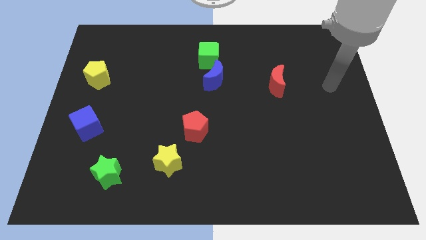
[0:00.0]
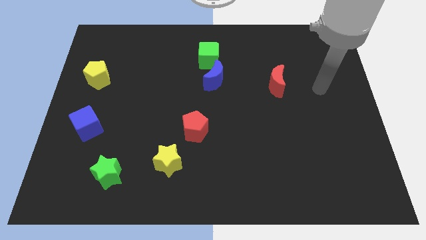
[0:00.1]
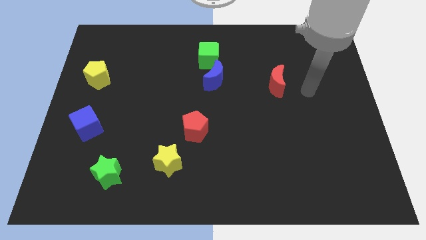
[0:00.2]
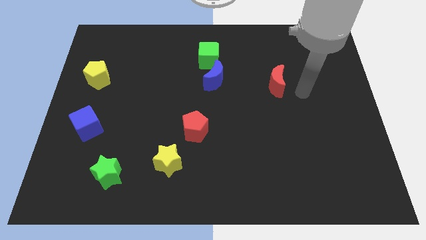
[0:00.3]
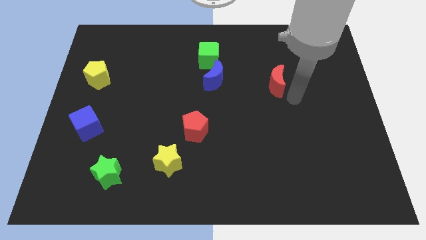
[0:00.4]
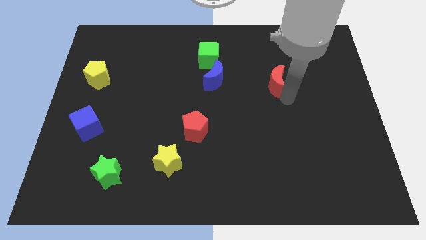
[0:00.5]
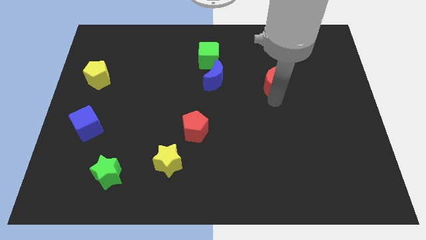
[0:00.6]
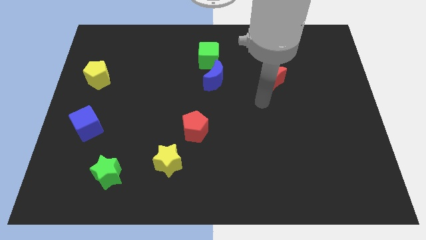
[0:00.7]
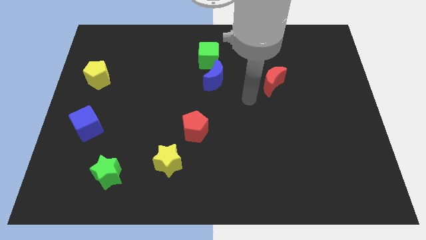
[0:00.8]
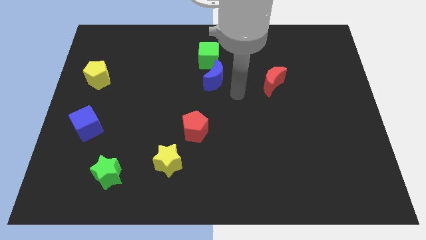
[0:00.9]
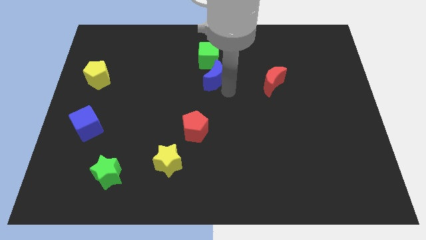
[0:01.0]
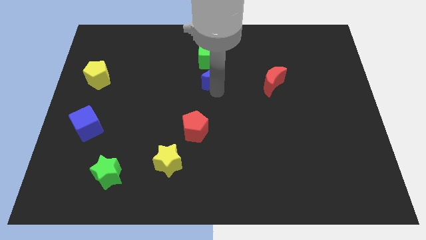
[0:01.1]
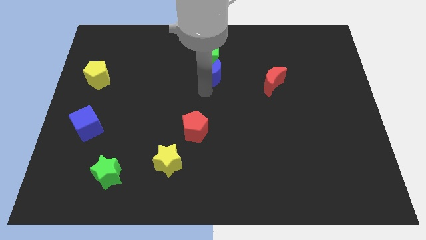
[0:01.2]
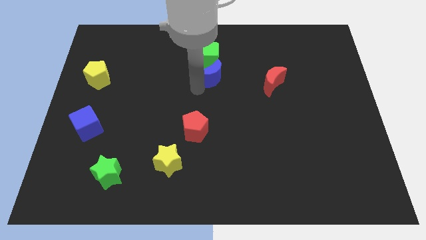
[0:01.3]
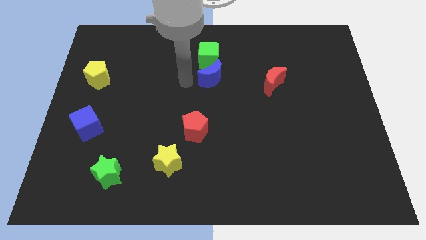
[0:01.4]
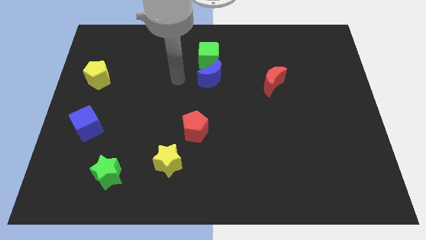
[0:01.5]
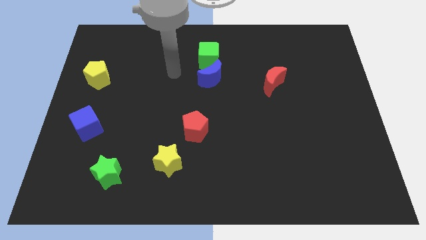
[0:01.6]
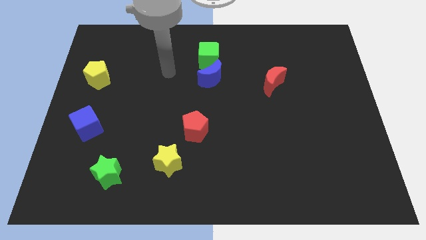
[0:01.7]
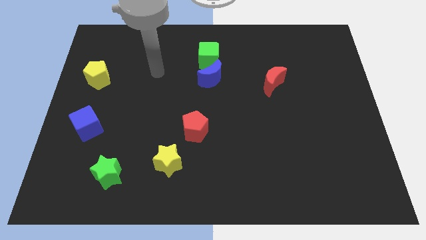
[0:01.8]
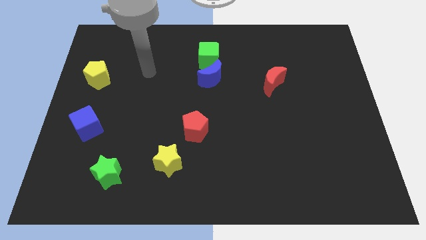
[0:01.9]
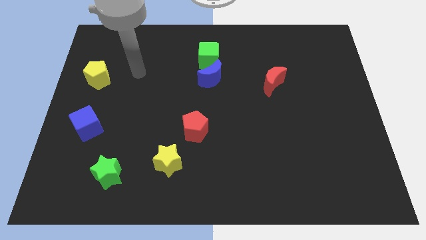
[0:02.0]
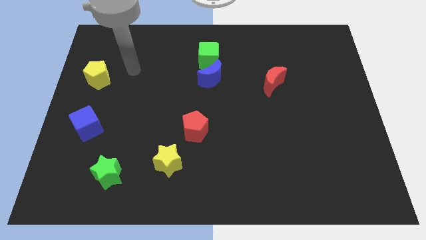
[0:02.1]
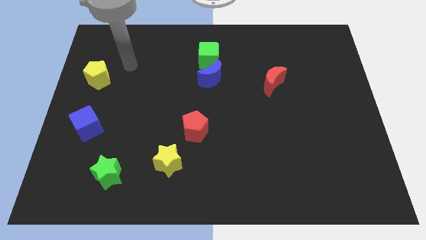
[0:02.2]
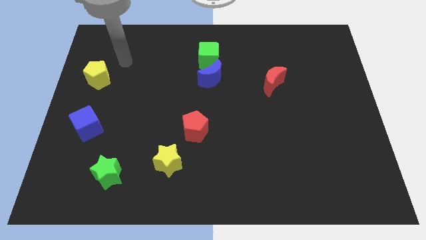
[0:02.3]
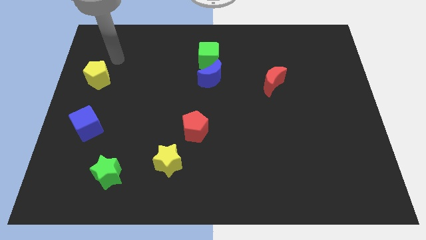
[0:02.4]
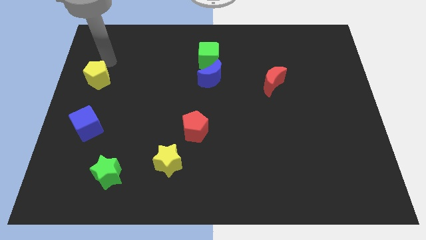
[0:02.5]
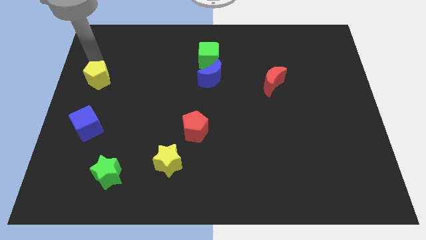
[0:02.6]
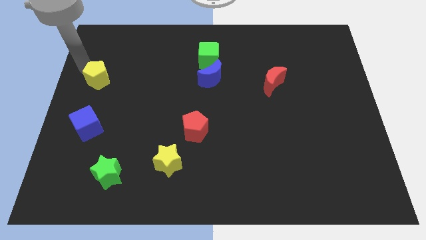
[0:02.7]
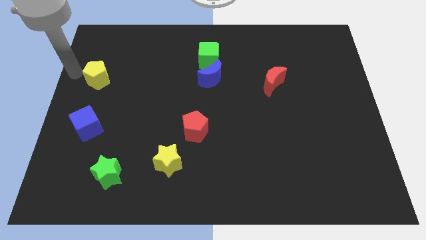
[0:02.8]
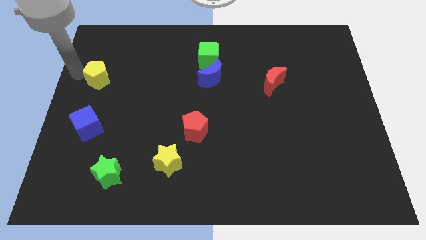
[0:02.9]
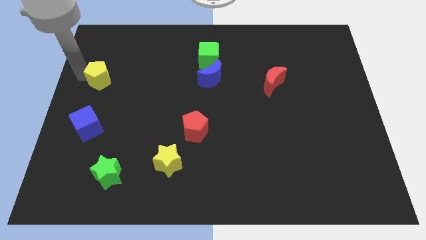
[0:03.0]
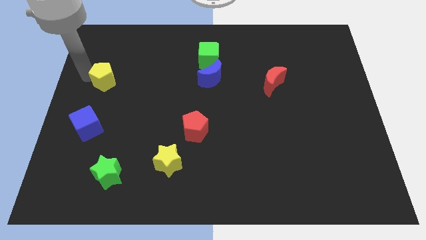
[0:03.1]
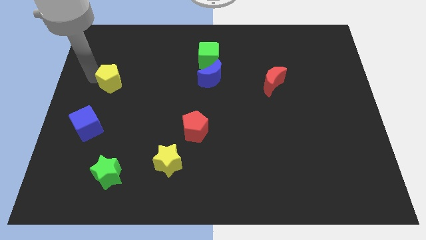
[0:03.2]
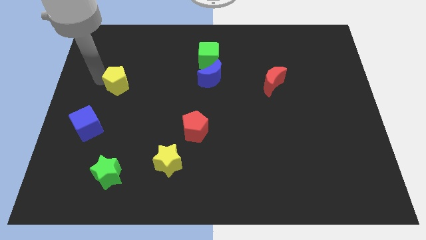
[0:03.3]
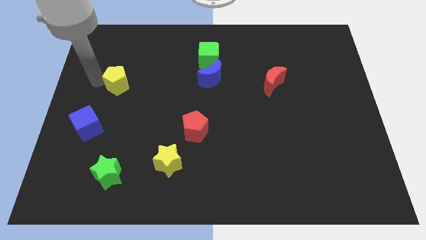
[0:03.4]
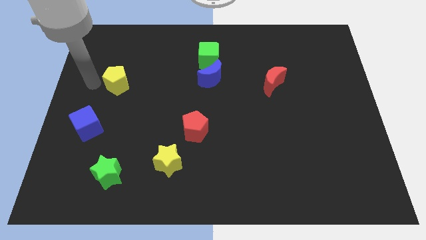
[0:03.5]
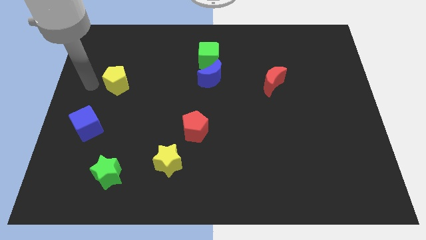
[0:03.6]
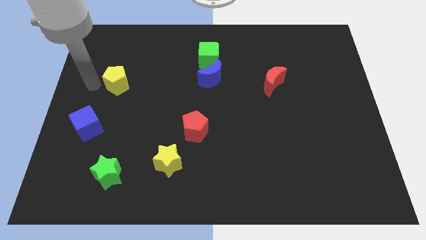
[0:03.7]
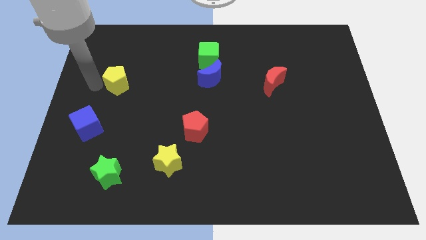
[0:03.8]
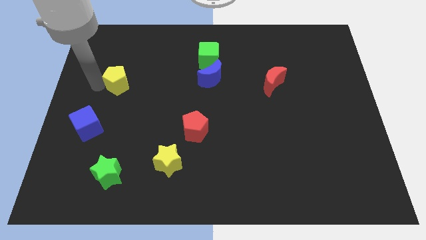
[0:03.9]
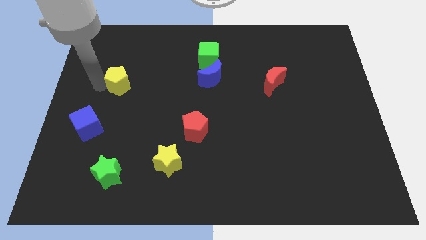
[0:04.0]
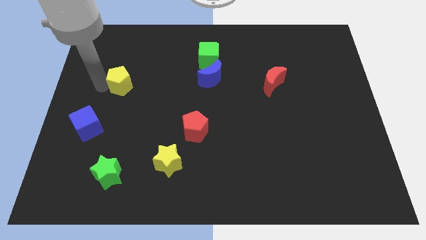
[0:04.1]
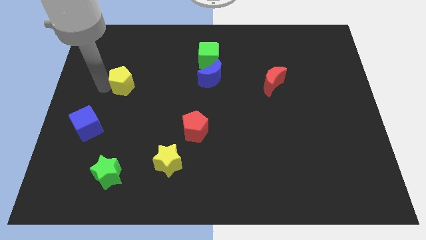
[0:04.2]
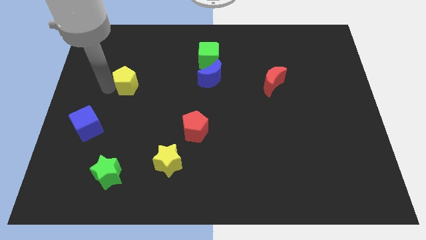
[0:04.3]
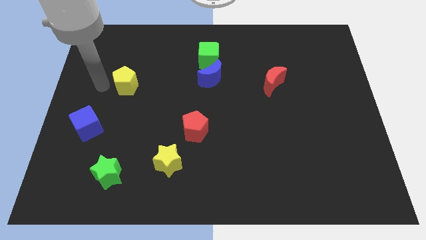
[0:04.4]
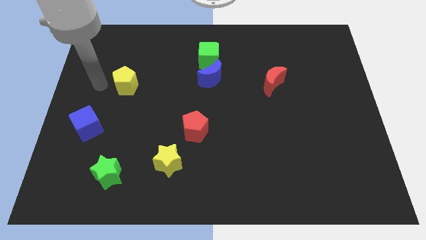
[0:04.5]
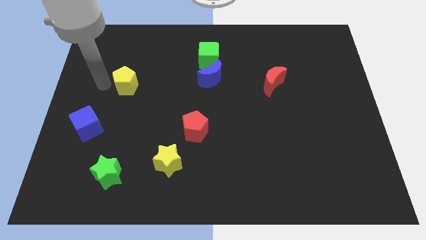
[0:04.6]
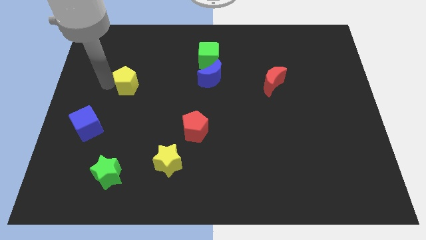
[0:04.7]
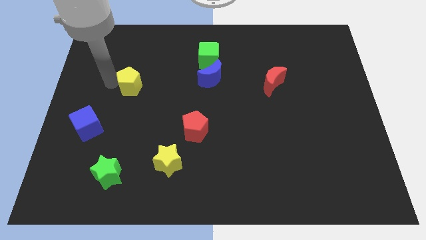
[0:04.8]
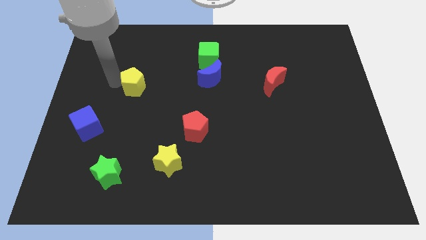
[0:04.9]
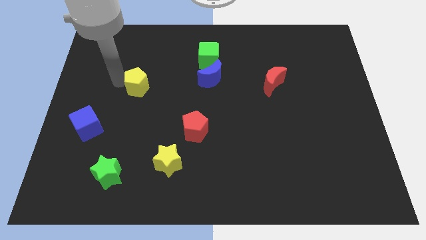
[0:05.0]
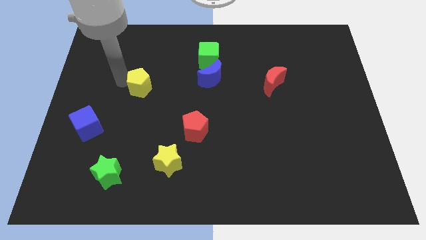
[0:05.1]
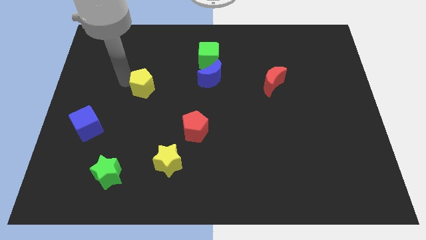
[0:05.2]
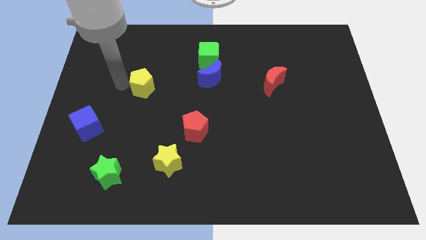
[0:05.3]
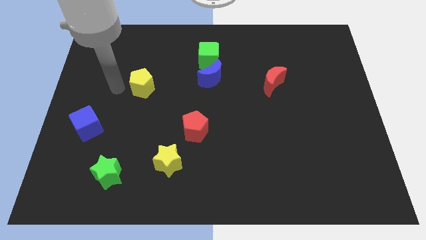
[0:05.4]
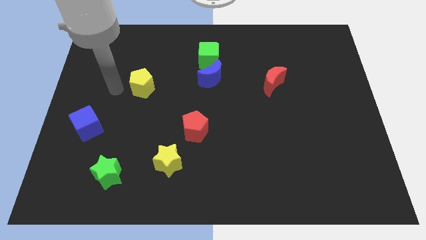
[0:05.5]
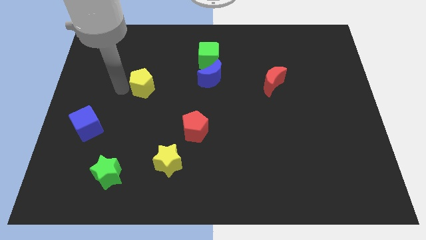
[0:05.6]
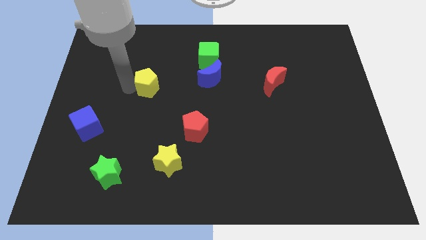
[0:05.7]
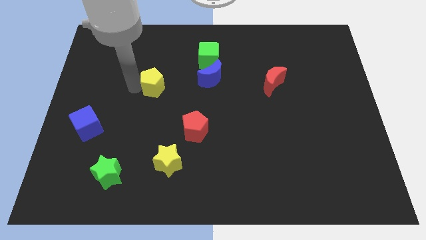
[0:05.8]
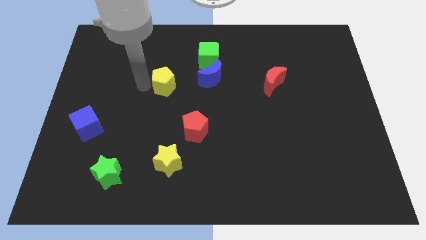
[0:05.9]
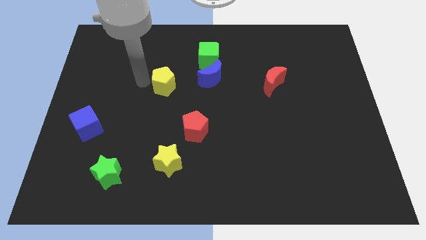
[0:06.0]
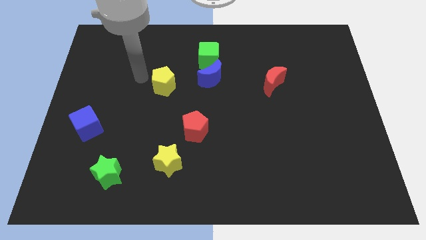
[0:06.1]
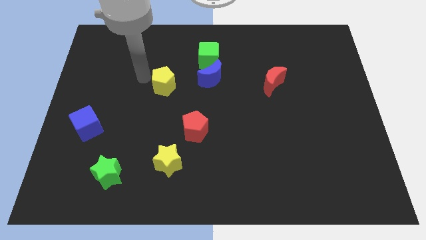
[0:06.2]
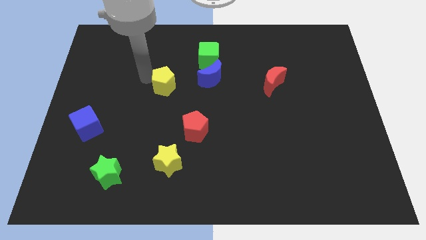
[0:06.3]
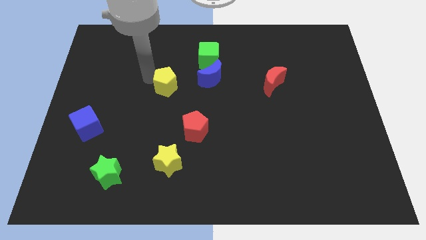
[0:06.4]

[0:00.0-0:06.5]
put the yellow pentagon to the middle

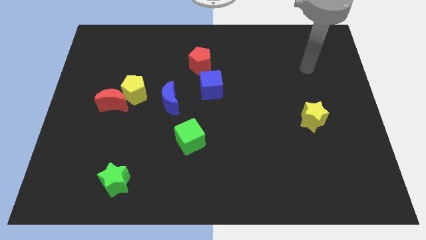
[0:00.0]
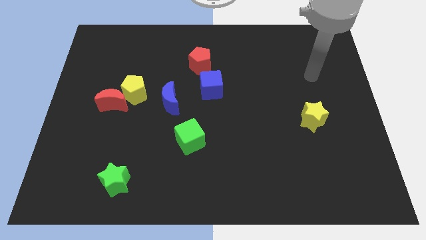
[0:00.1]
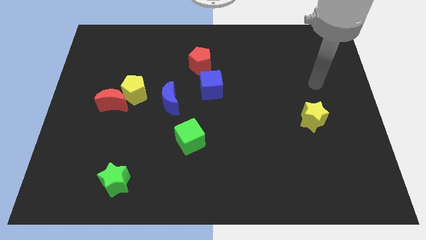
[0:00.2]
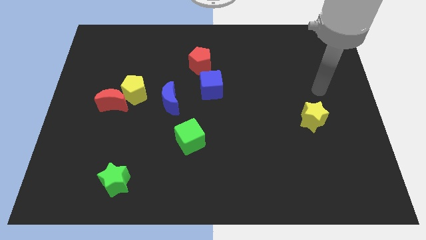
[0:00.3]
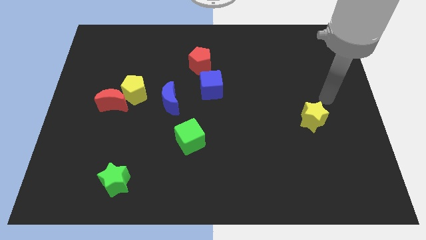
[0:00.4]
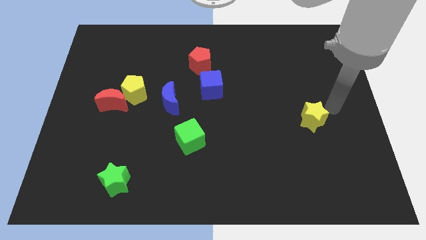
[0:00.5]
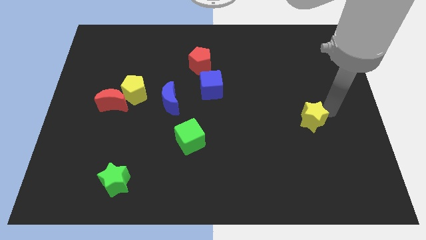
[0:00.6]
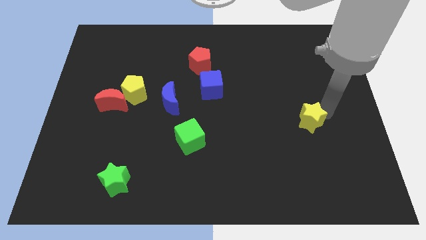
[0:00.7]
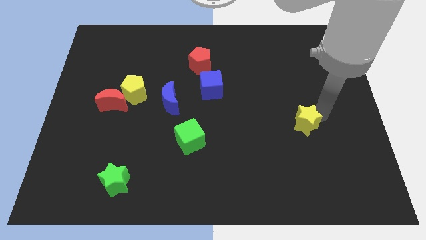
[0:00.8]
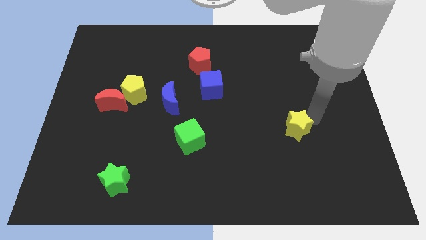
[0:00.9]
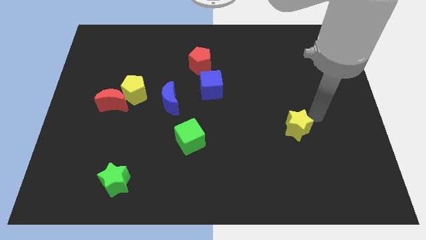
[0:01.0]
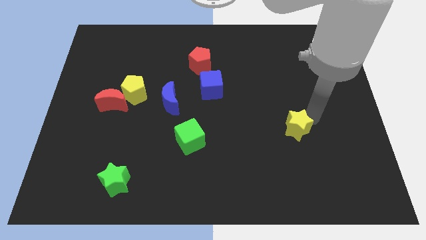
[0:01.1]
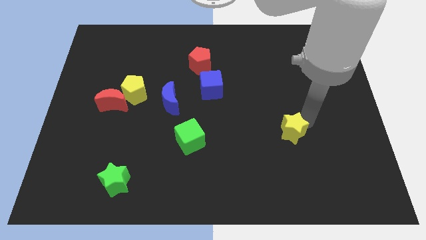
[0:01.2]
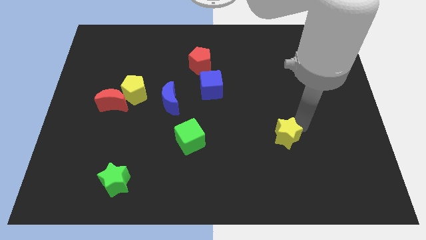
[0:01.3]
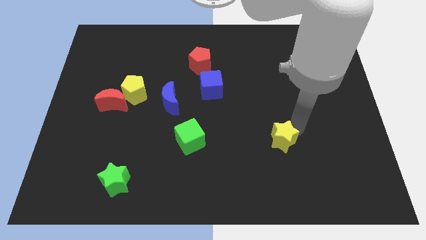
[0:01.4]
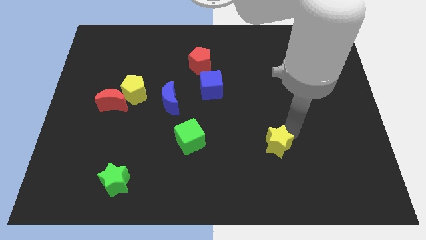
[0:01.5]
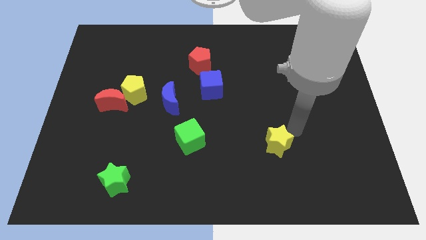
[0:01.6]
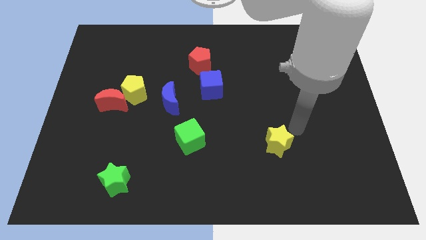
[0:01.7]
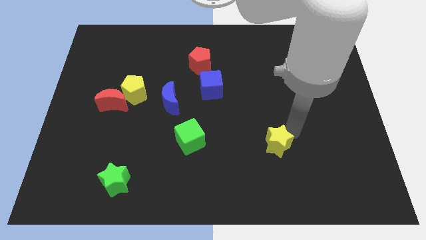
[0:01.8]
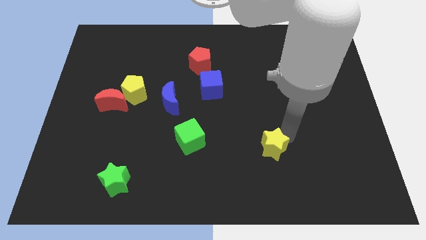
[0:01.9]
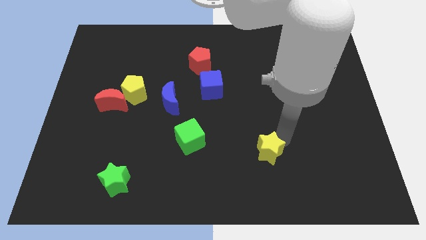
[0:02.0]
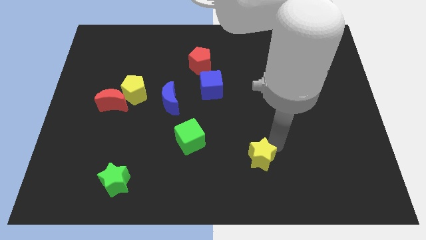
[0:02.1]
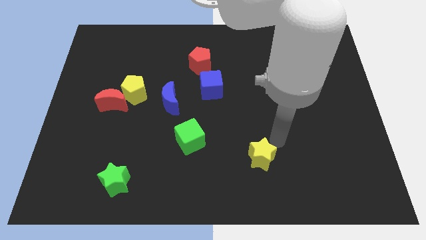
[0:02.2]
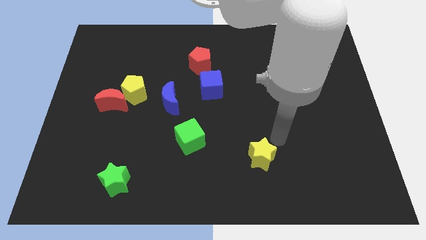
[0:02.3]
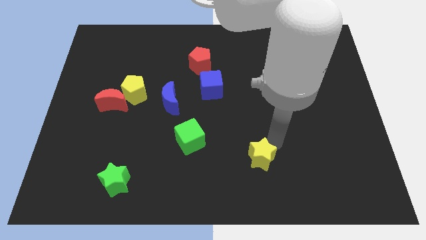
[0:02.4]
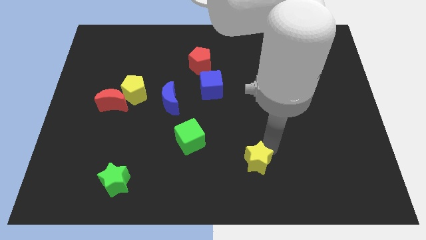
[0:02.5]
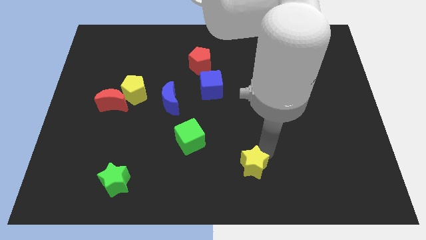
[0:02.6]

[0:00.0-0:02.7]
slide the yellow star to the bottom
